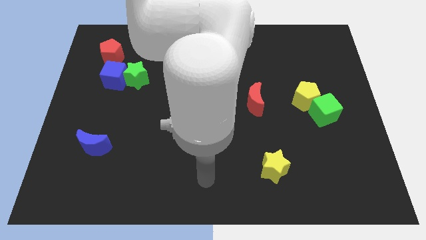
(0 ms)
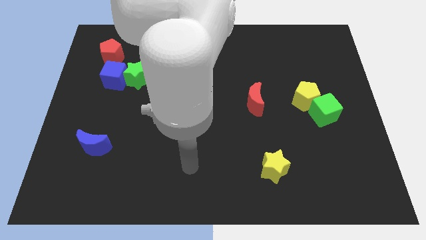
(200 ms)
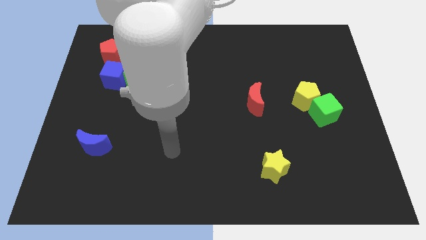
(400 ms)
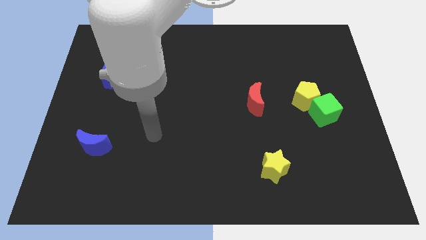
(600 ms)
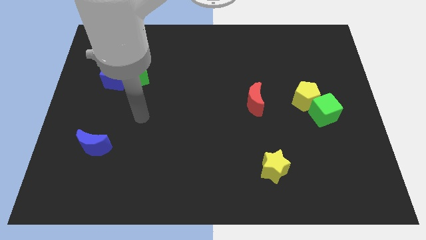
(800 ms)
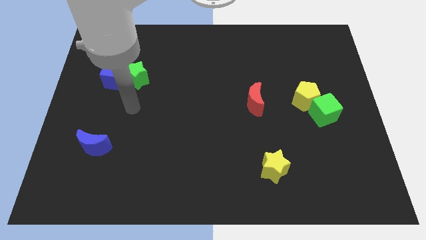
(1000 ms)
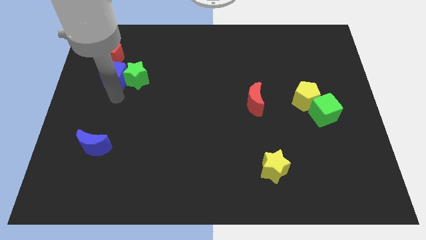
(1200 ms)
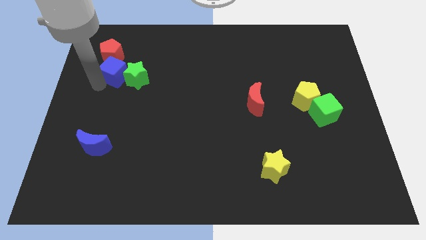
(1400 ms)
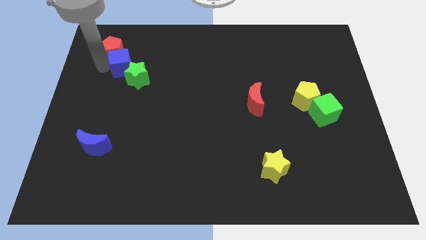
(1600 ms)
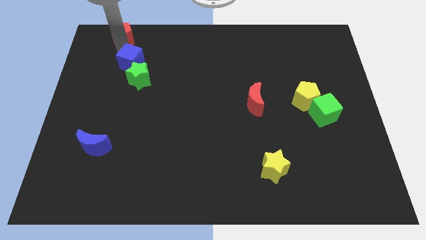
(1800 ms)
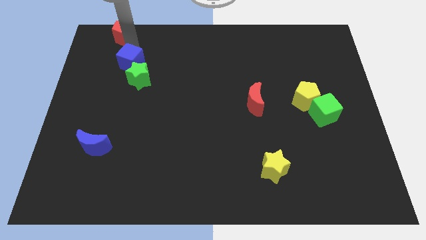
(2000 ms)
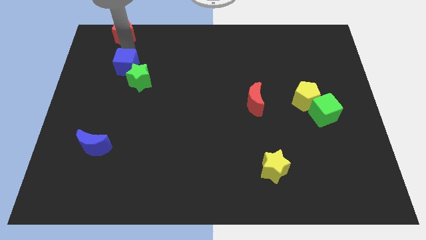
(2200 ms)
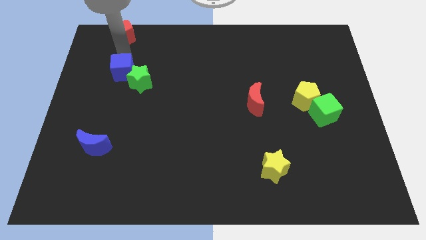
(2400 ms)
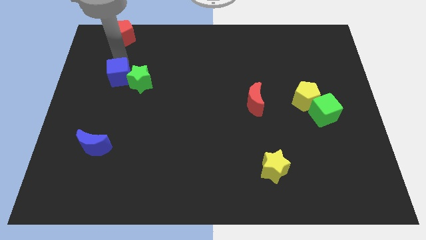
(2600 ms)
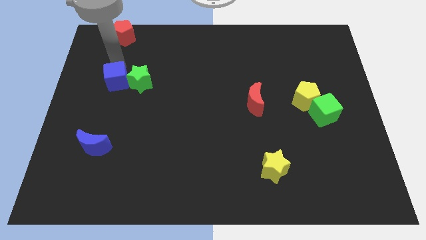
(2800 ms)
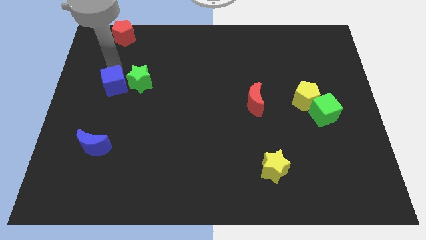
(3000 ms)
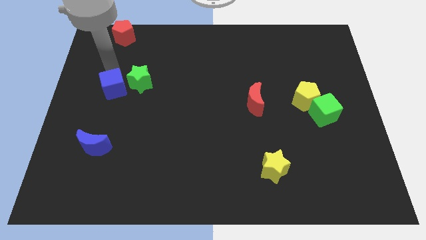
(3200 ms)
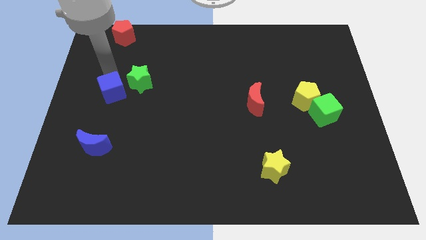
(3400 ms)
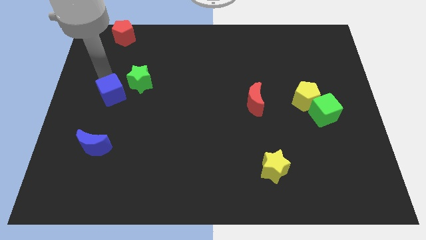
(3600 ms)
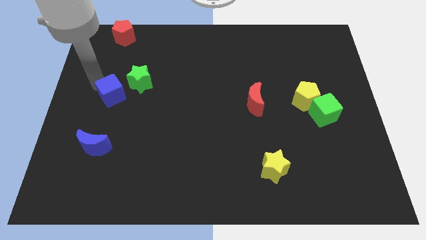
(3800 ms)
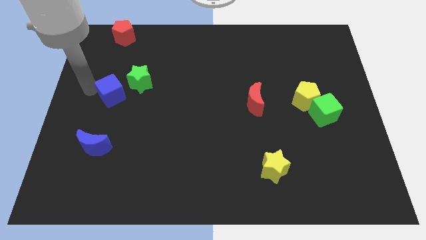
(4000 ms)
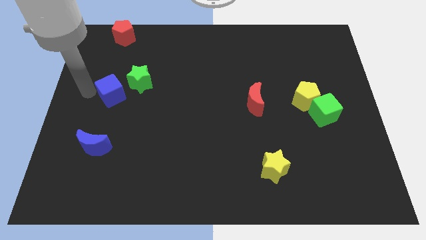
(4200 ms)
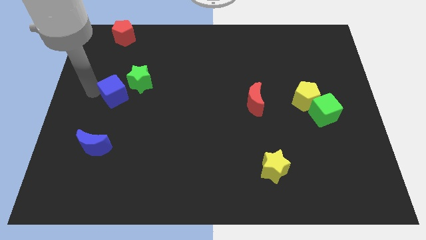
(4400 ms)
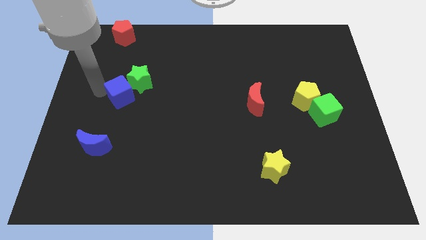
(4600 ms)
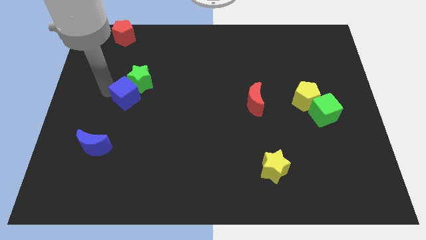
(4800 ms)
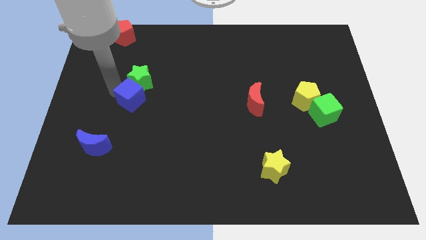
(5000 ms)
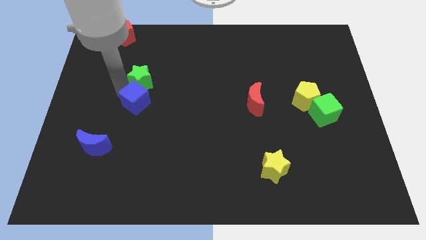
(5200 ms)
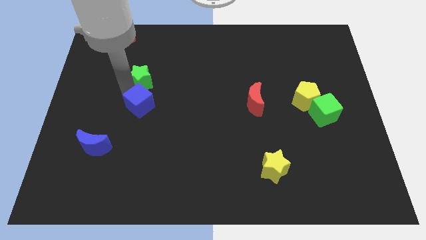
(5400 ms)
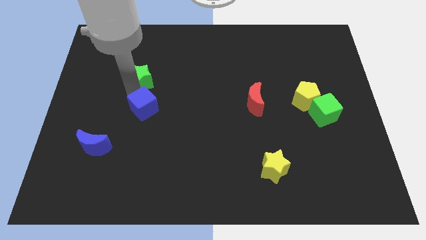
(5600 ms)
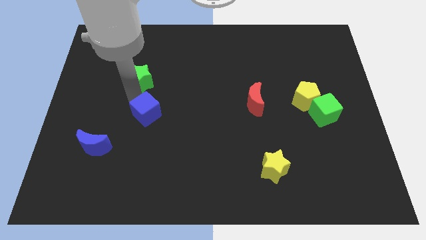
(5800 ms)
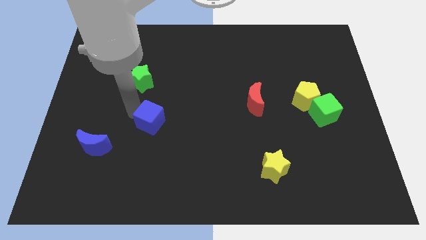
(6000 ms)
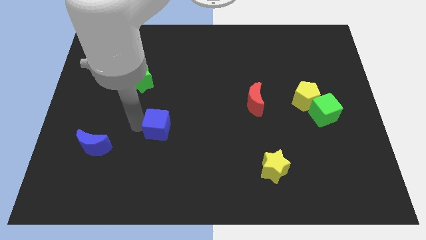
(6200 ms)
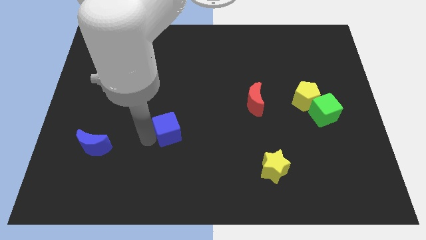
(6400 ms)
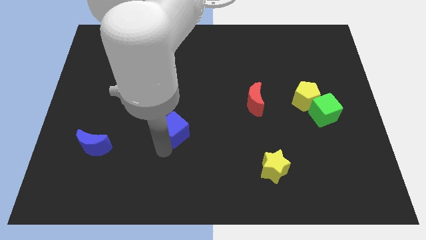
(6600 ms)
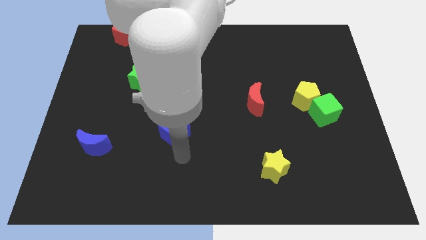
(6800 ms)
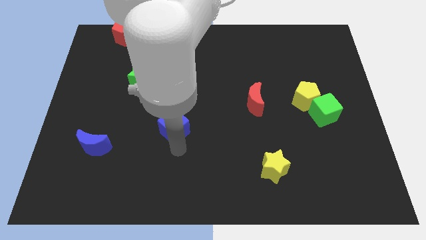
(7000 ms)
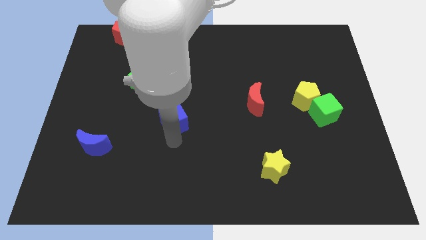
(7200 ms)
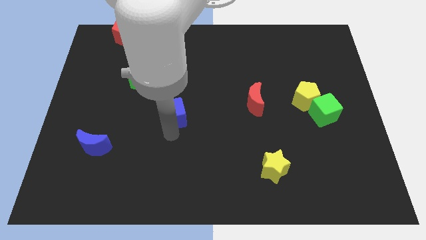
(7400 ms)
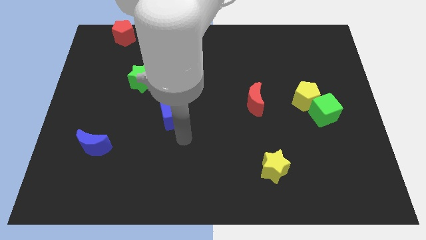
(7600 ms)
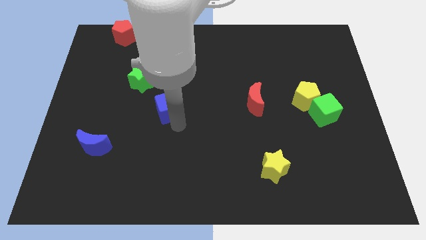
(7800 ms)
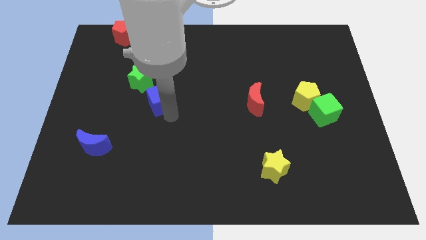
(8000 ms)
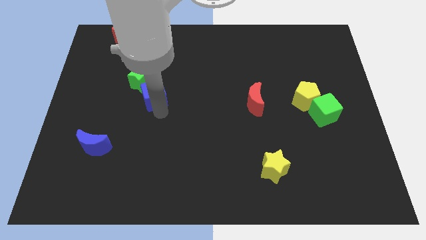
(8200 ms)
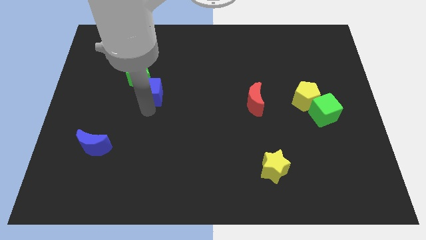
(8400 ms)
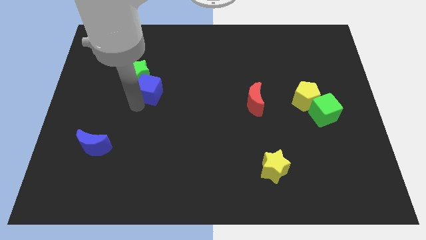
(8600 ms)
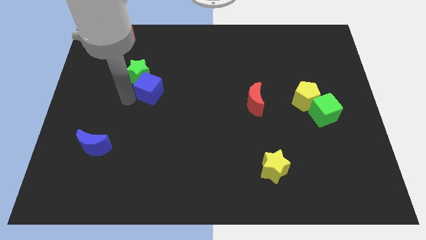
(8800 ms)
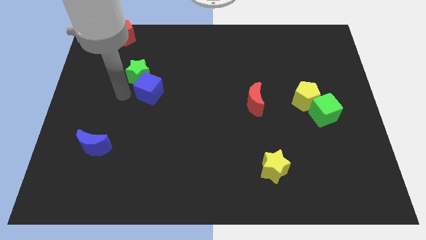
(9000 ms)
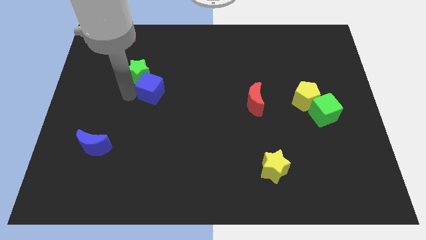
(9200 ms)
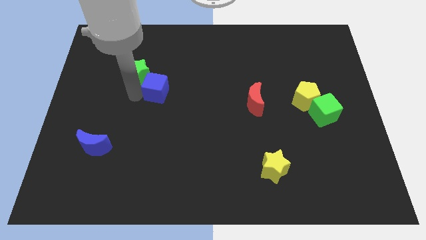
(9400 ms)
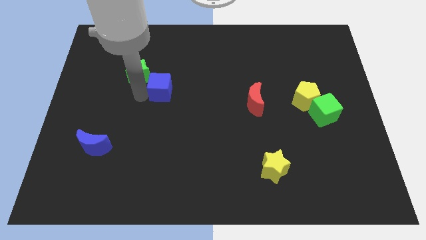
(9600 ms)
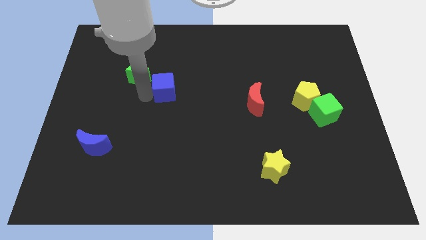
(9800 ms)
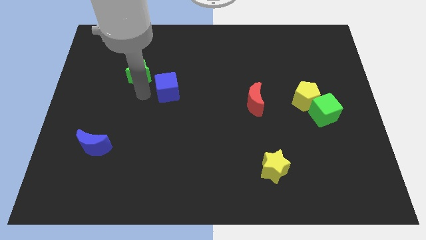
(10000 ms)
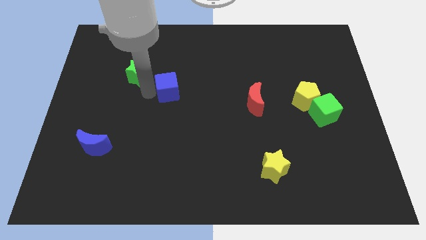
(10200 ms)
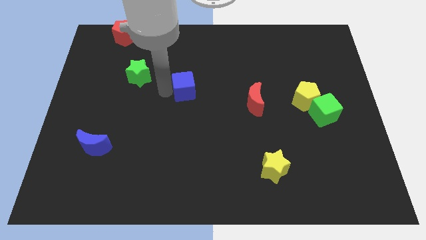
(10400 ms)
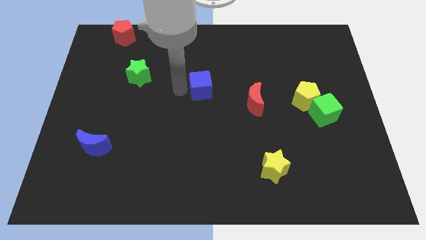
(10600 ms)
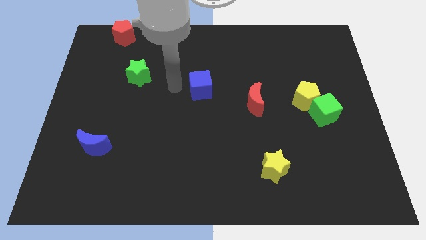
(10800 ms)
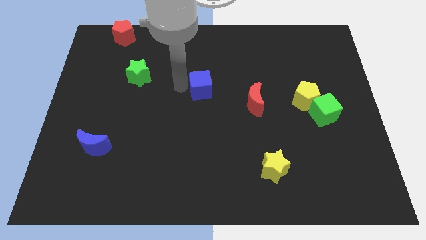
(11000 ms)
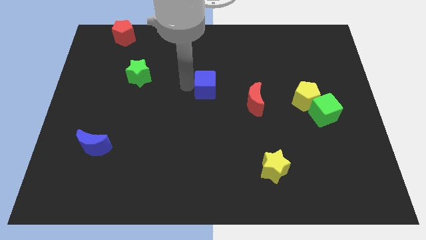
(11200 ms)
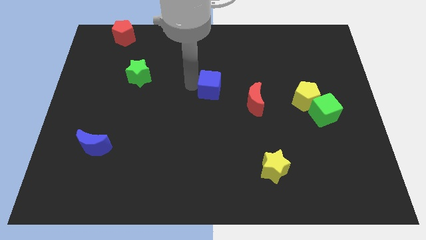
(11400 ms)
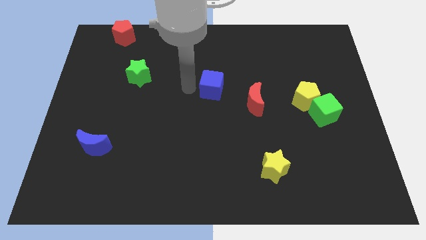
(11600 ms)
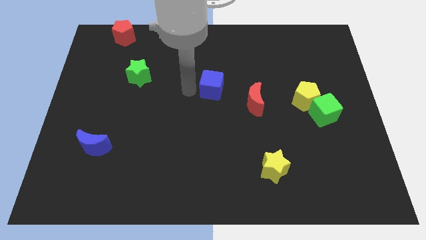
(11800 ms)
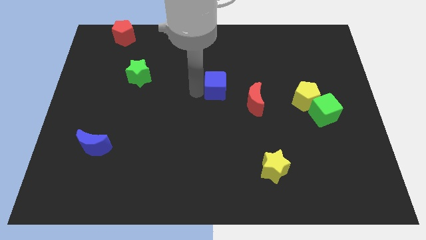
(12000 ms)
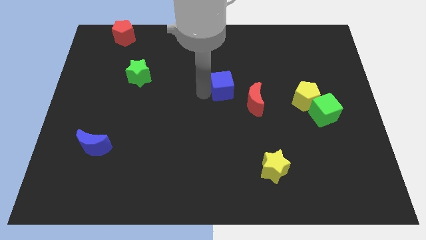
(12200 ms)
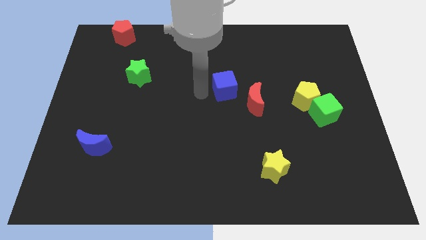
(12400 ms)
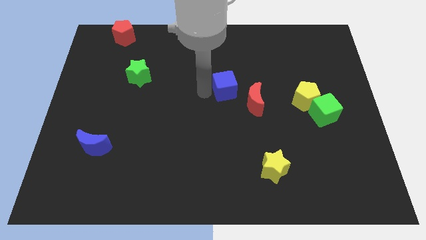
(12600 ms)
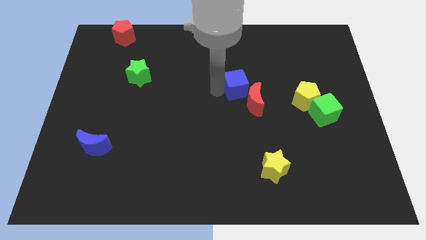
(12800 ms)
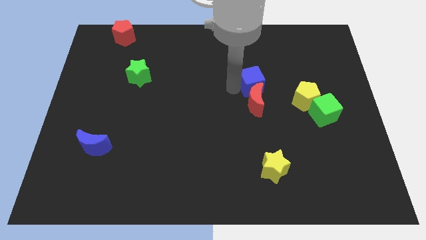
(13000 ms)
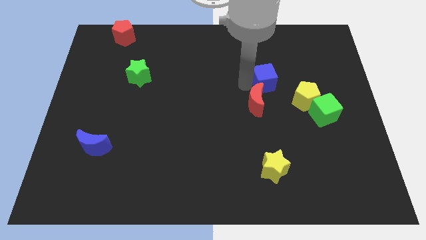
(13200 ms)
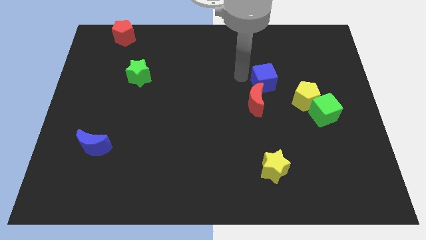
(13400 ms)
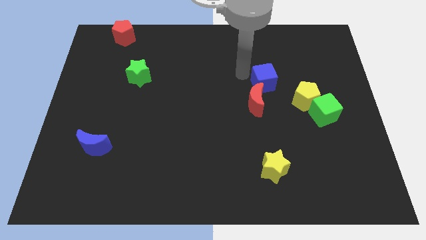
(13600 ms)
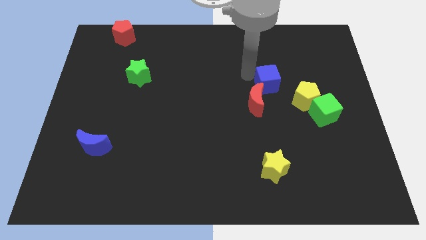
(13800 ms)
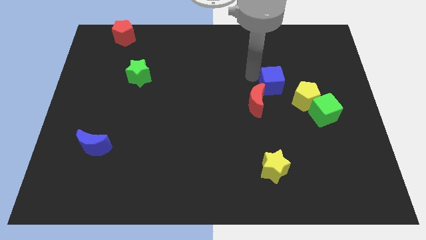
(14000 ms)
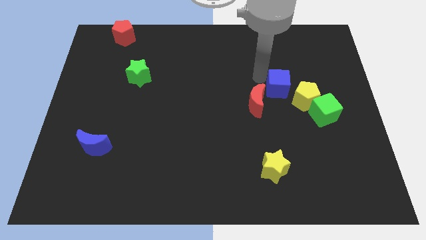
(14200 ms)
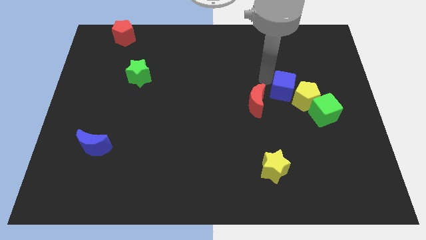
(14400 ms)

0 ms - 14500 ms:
push the blue cube next to the yellow pentagon
